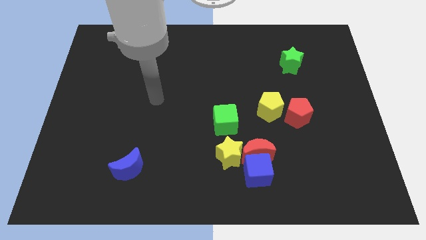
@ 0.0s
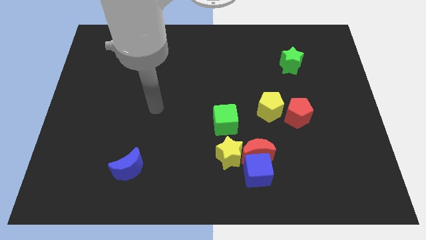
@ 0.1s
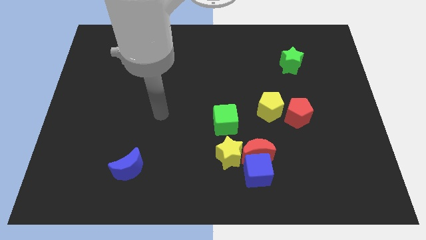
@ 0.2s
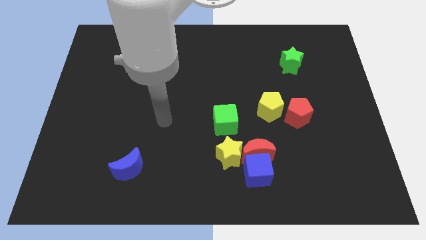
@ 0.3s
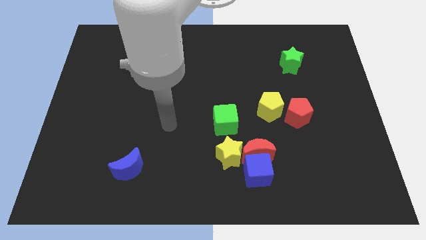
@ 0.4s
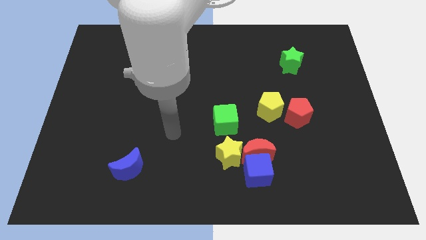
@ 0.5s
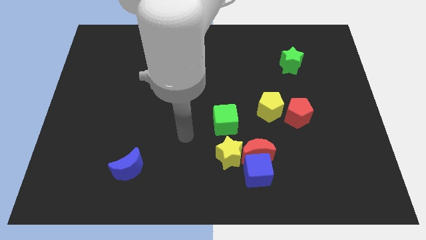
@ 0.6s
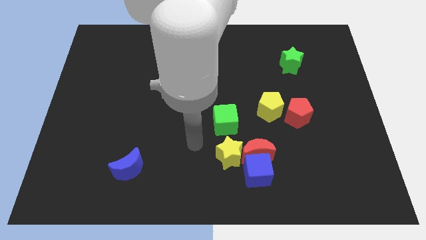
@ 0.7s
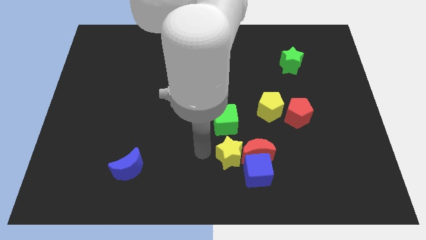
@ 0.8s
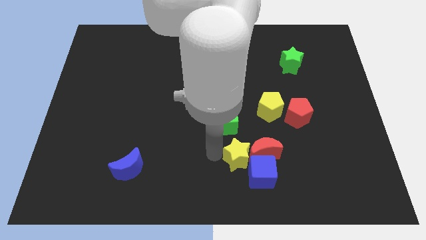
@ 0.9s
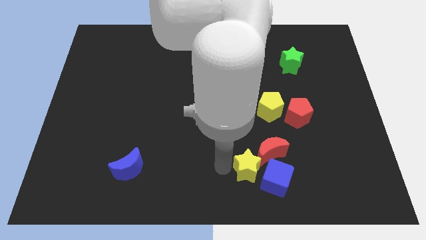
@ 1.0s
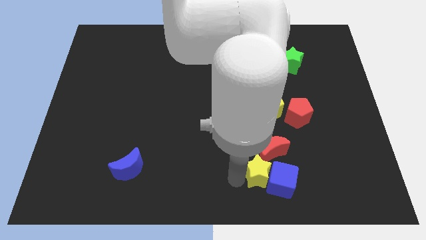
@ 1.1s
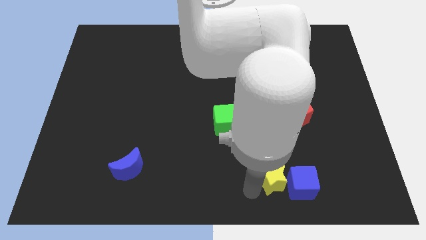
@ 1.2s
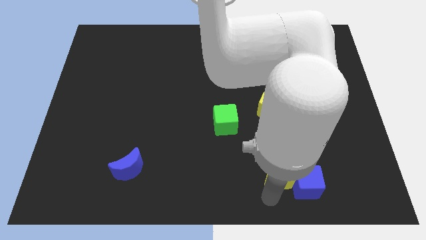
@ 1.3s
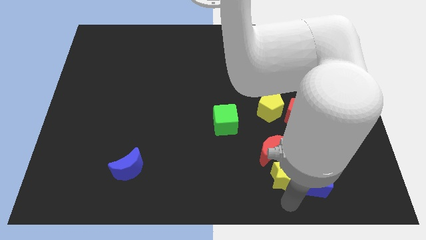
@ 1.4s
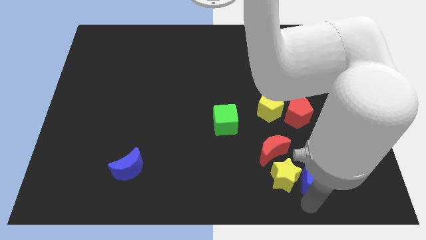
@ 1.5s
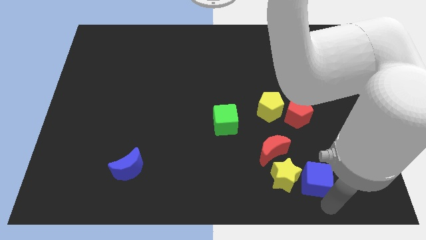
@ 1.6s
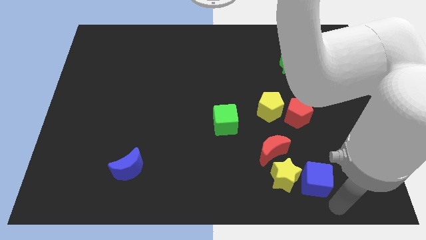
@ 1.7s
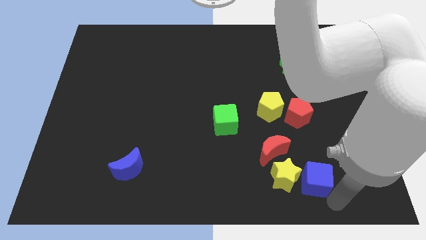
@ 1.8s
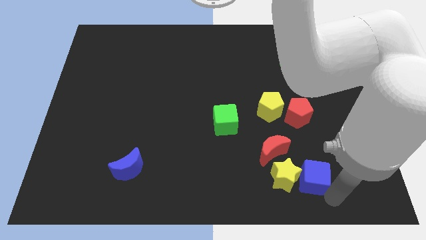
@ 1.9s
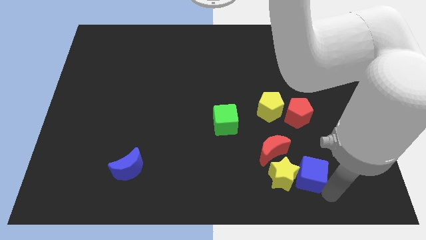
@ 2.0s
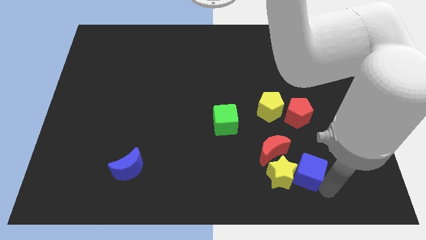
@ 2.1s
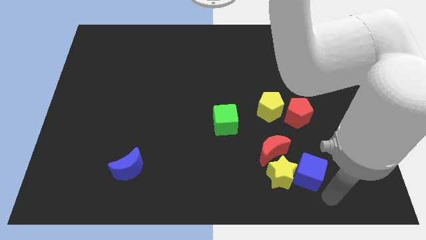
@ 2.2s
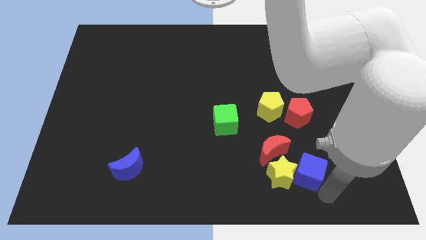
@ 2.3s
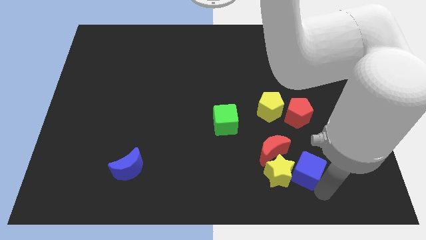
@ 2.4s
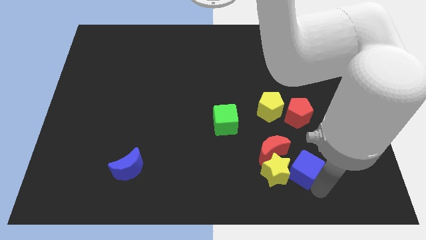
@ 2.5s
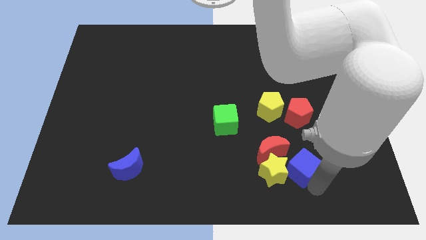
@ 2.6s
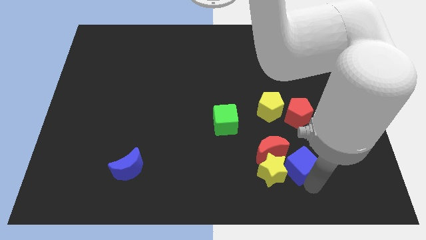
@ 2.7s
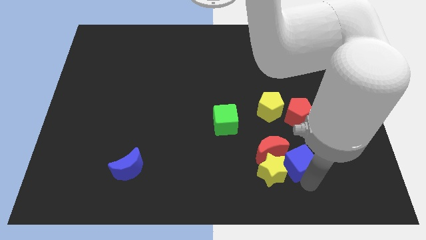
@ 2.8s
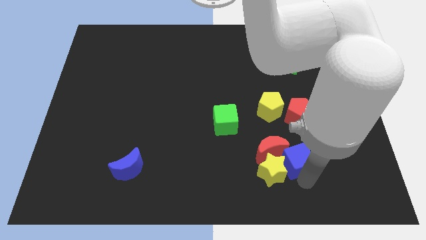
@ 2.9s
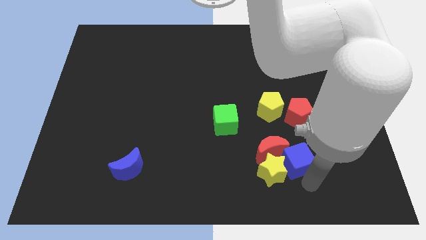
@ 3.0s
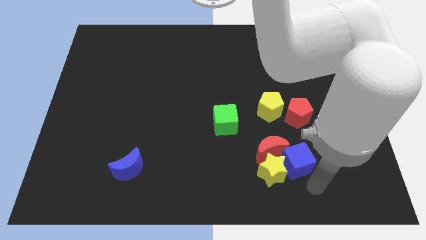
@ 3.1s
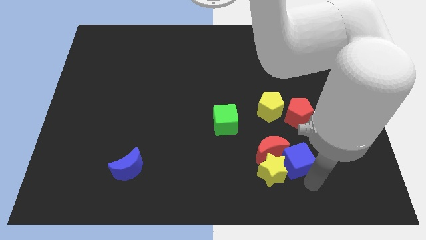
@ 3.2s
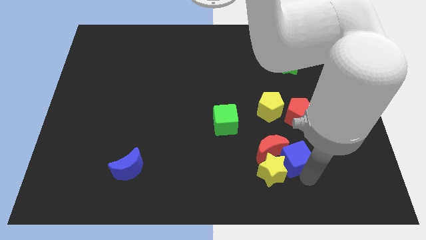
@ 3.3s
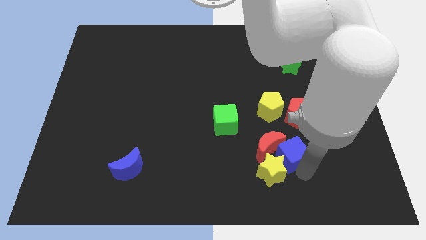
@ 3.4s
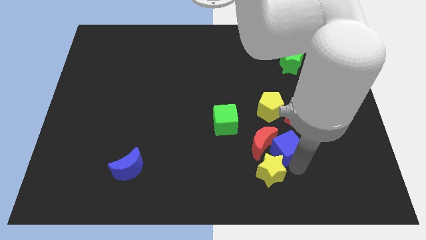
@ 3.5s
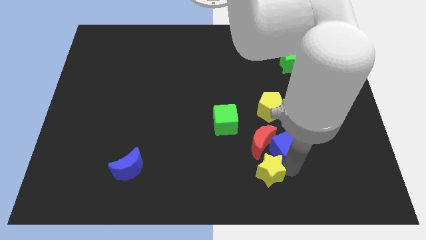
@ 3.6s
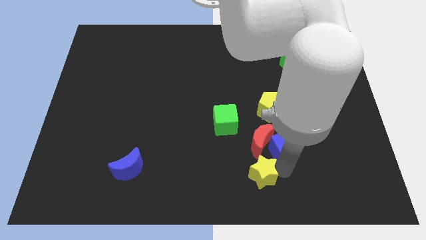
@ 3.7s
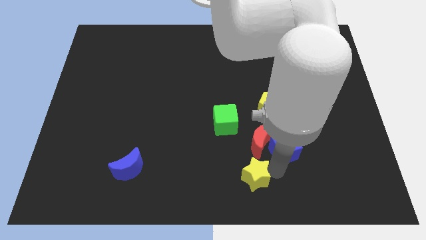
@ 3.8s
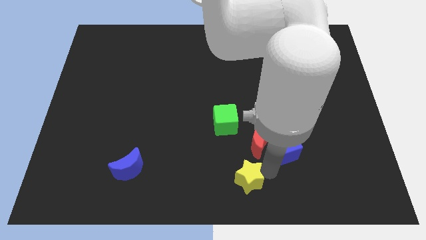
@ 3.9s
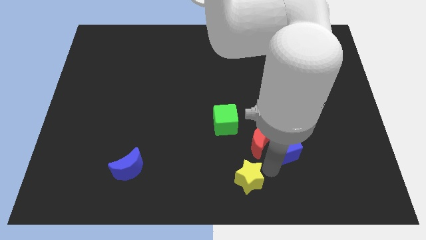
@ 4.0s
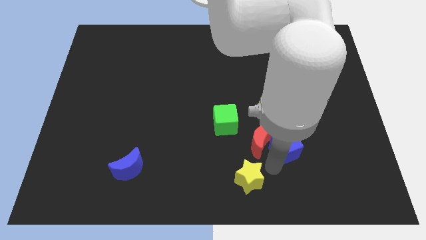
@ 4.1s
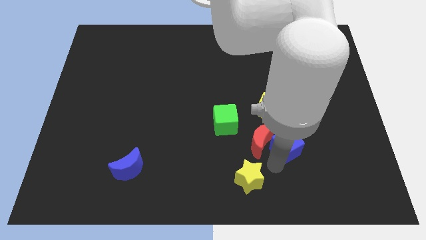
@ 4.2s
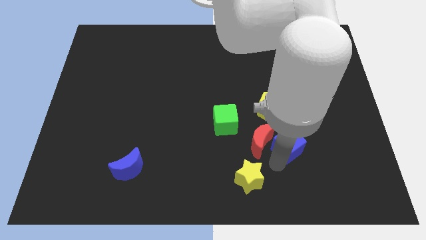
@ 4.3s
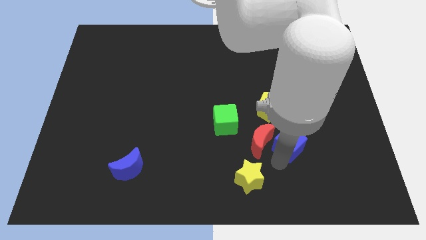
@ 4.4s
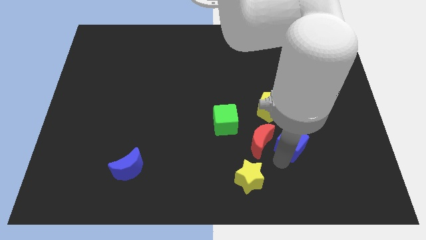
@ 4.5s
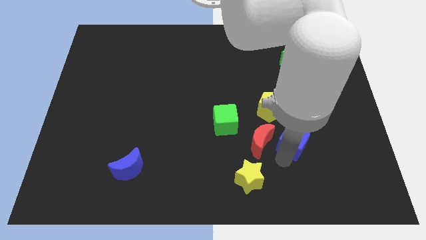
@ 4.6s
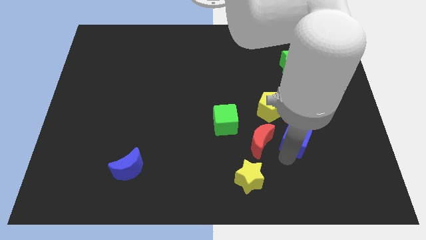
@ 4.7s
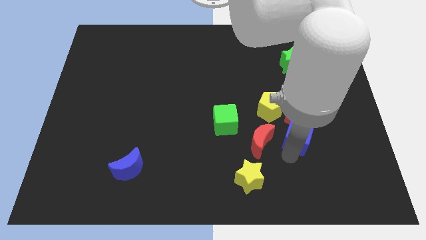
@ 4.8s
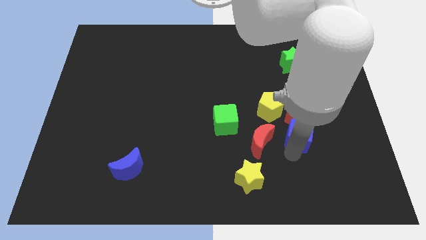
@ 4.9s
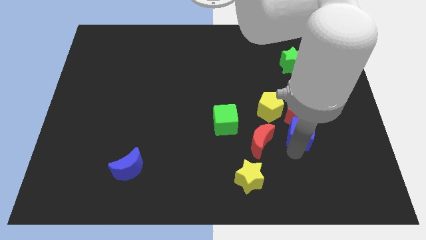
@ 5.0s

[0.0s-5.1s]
move the blue cube next to the red pentagon

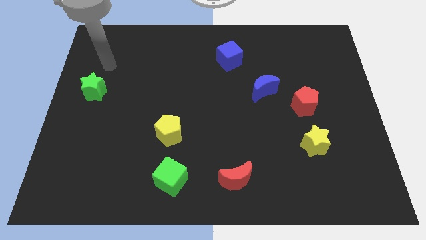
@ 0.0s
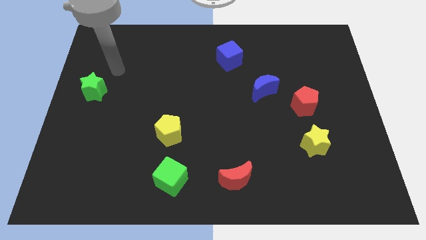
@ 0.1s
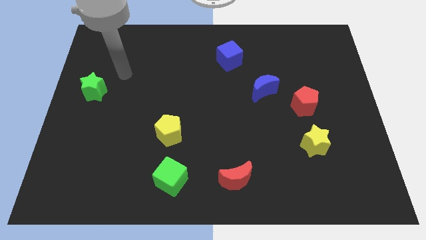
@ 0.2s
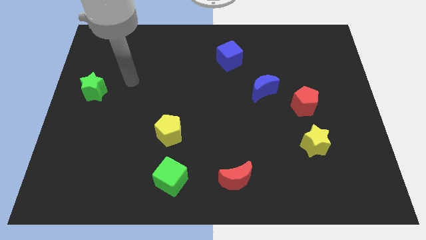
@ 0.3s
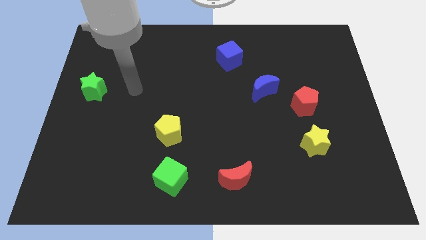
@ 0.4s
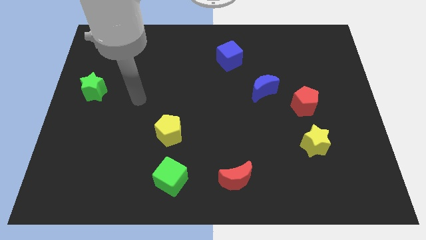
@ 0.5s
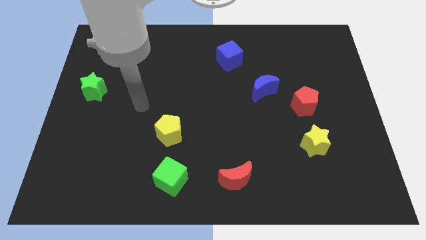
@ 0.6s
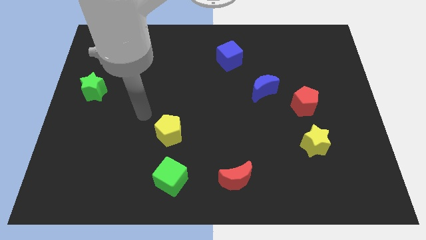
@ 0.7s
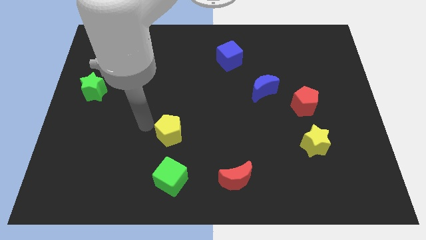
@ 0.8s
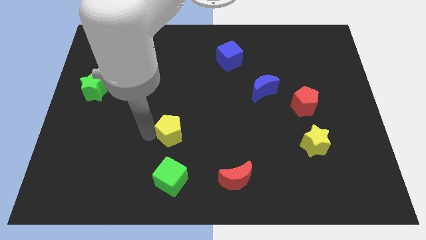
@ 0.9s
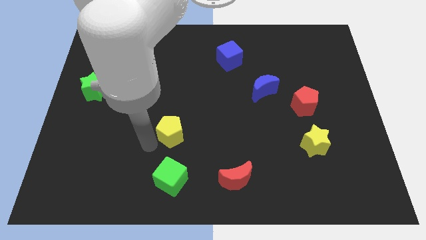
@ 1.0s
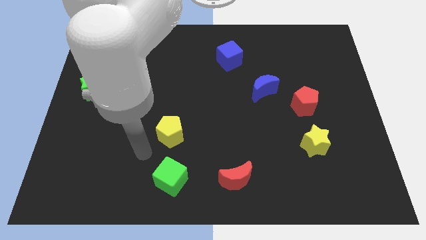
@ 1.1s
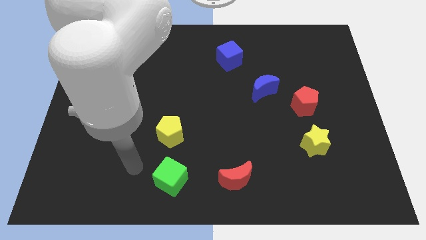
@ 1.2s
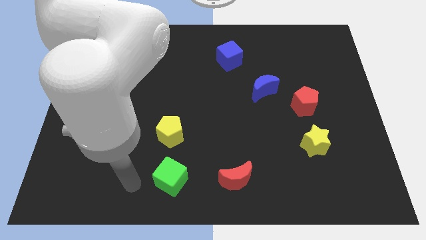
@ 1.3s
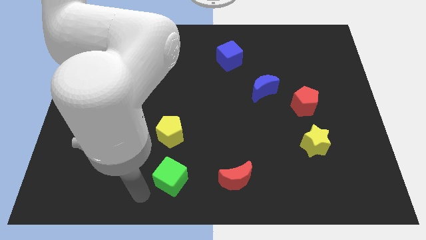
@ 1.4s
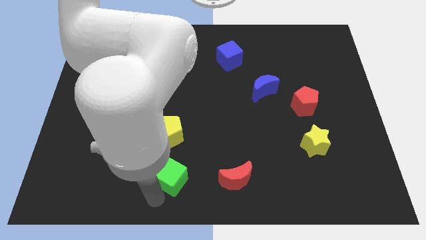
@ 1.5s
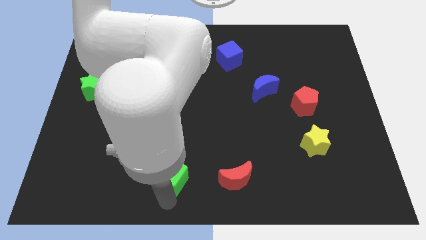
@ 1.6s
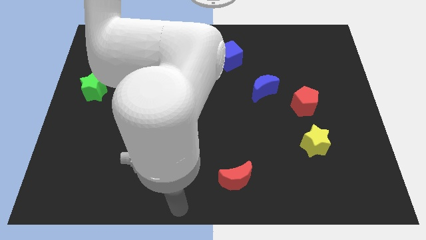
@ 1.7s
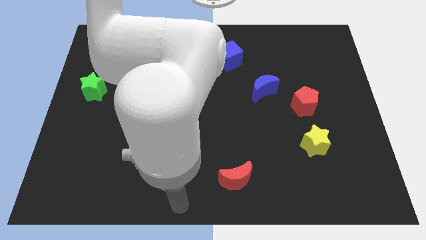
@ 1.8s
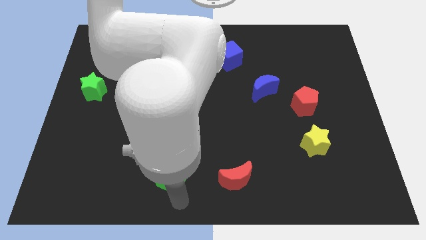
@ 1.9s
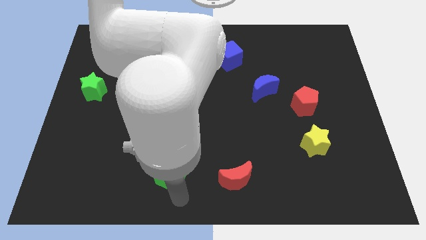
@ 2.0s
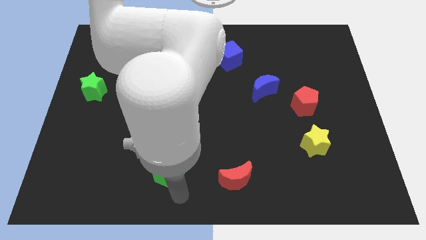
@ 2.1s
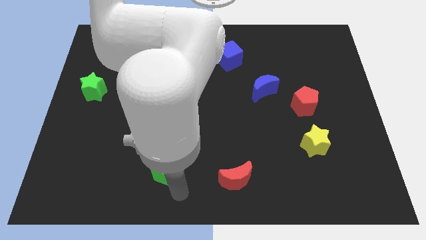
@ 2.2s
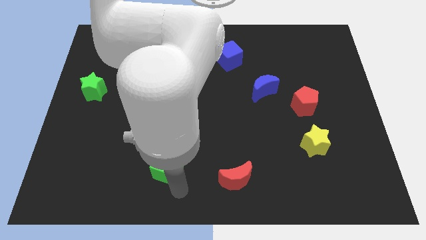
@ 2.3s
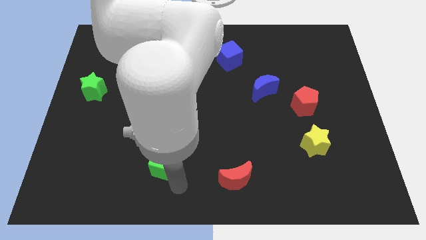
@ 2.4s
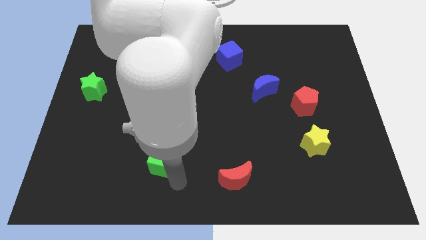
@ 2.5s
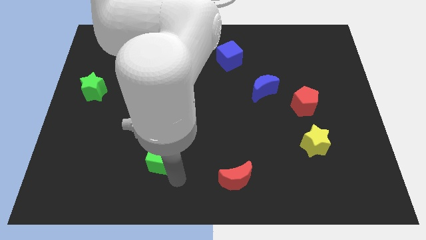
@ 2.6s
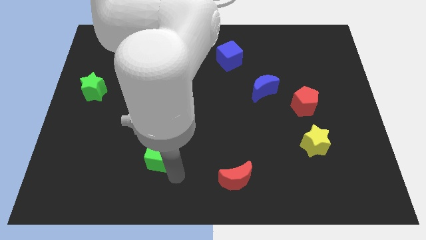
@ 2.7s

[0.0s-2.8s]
move the green cube close to the yellow pentagon
